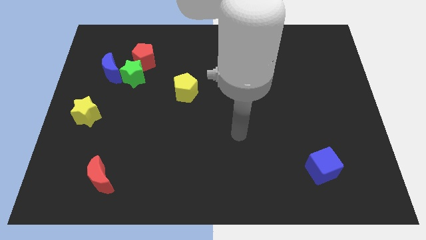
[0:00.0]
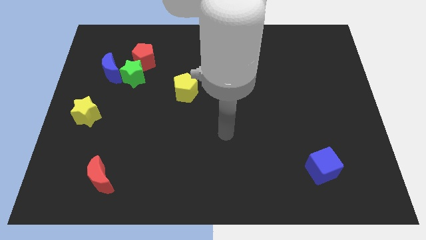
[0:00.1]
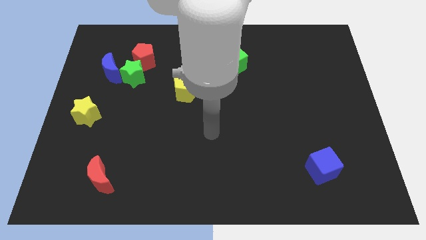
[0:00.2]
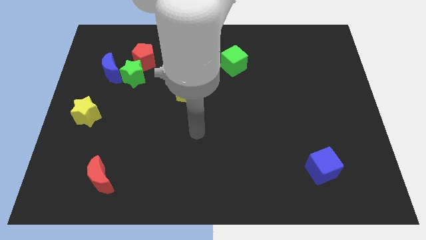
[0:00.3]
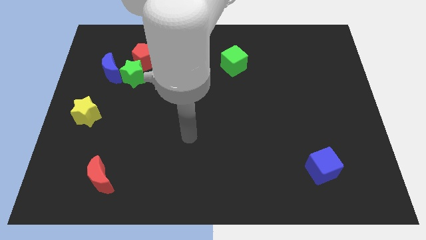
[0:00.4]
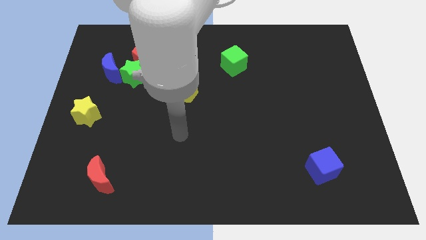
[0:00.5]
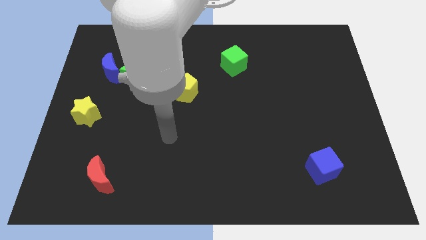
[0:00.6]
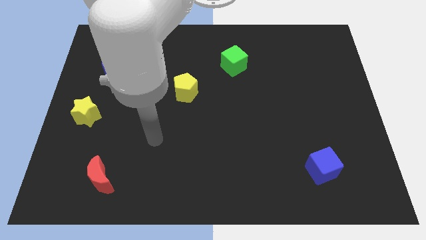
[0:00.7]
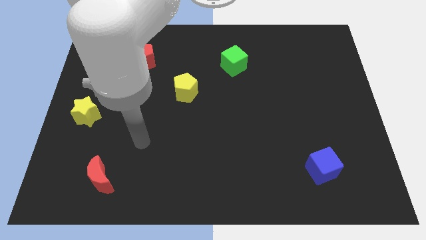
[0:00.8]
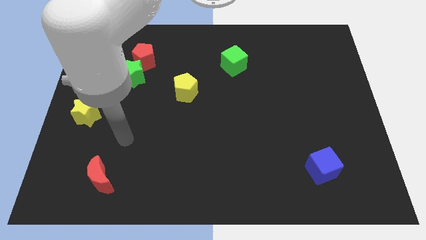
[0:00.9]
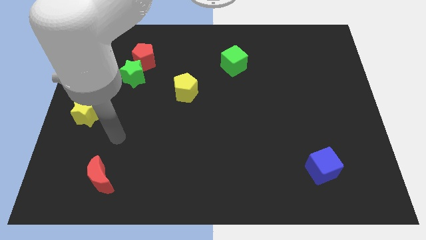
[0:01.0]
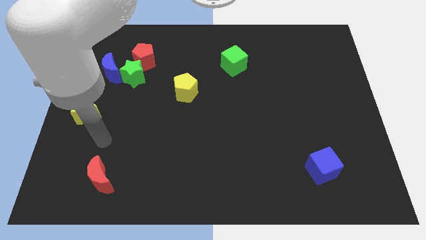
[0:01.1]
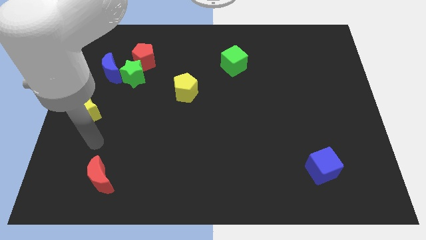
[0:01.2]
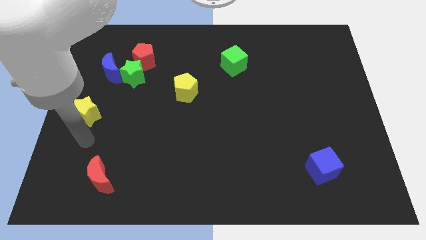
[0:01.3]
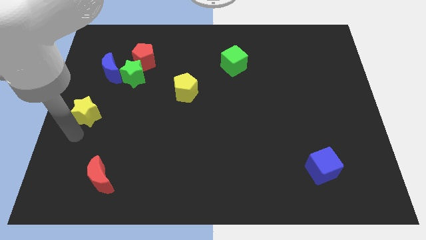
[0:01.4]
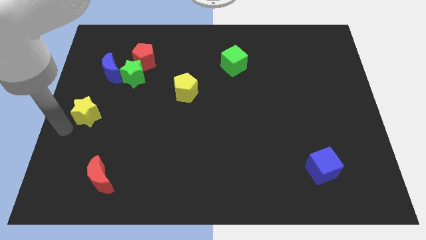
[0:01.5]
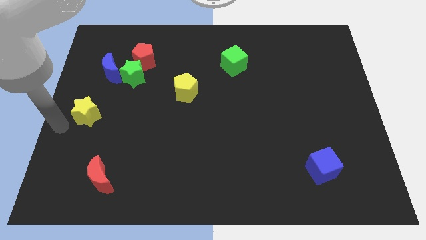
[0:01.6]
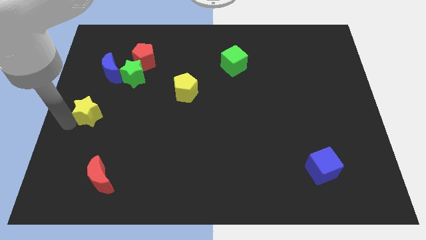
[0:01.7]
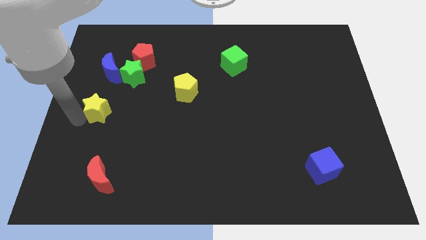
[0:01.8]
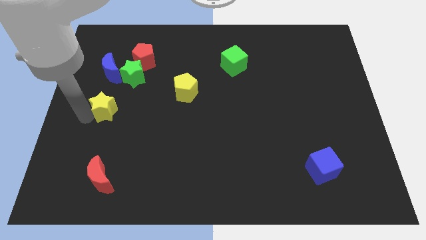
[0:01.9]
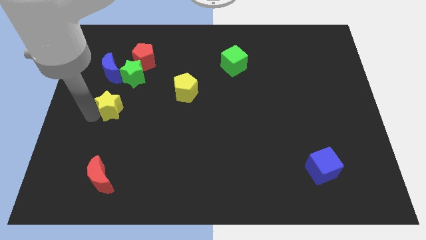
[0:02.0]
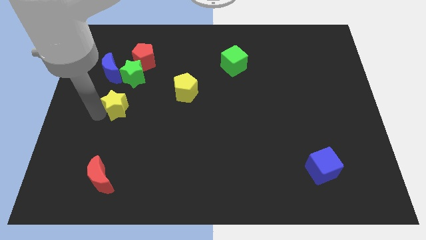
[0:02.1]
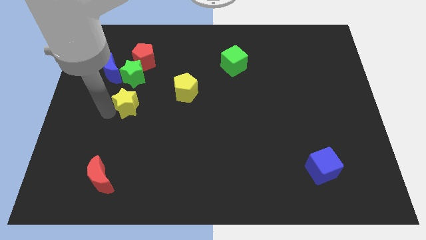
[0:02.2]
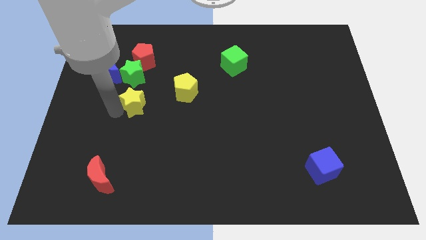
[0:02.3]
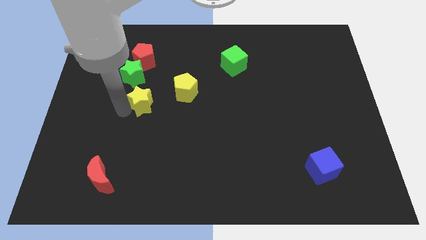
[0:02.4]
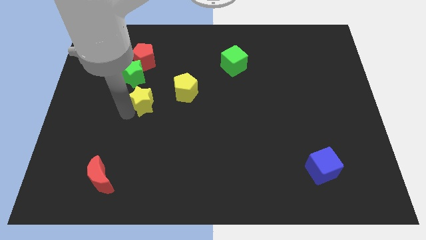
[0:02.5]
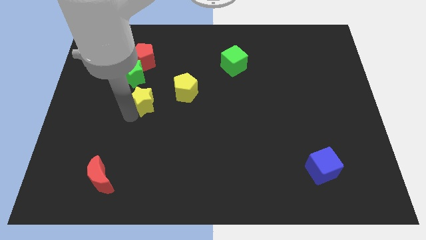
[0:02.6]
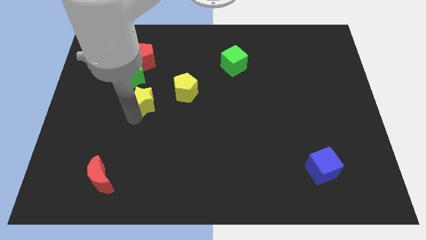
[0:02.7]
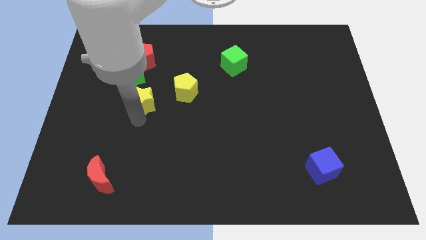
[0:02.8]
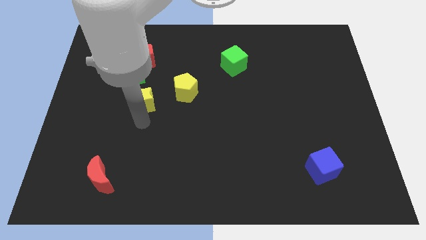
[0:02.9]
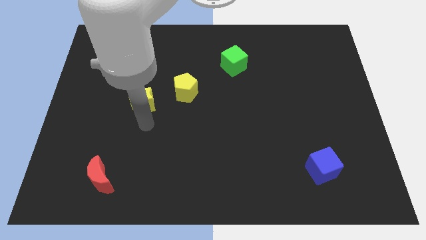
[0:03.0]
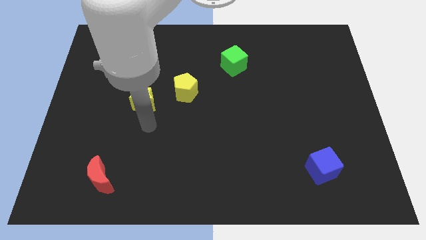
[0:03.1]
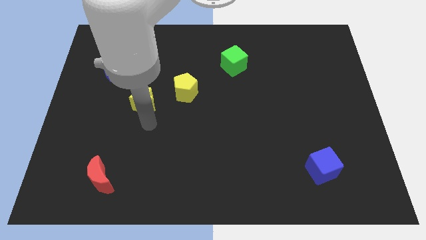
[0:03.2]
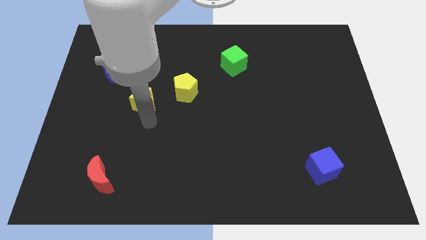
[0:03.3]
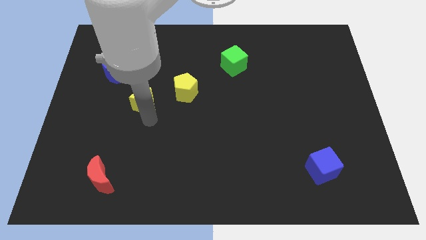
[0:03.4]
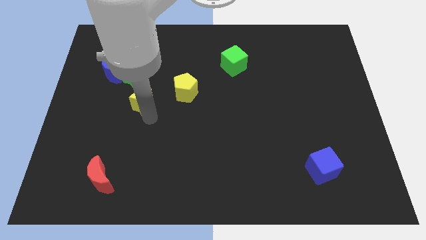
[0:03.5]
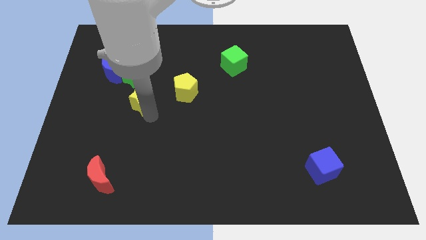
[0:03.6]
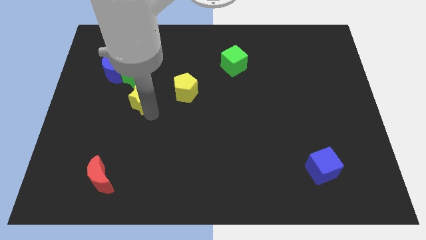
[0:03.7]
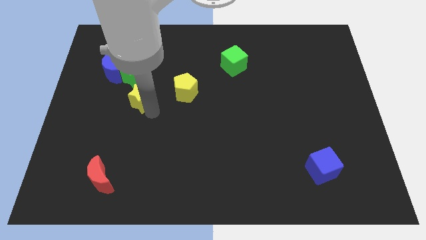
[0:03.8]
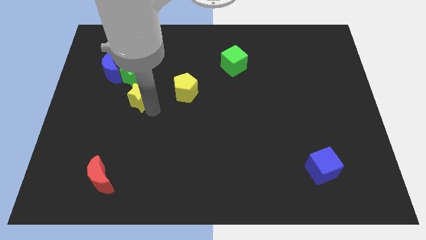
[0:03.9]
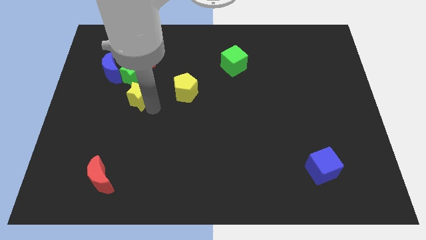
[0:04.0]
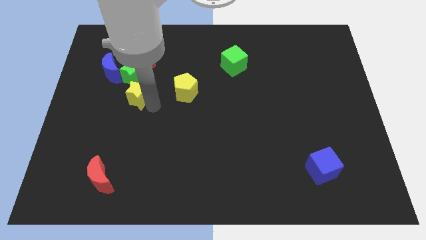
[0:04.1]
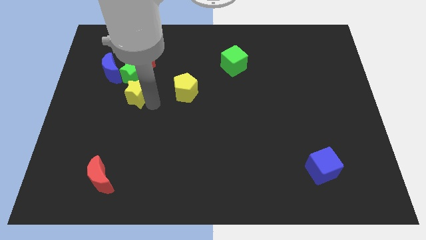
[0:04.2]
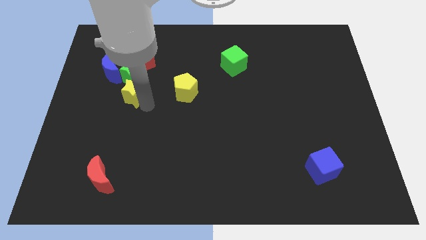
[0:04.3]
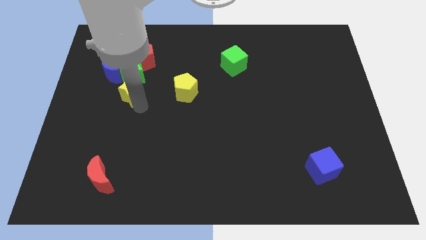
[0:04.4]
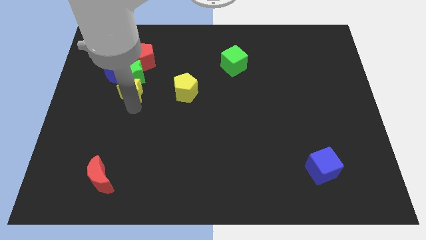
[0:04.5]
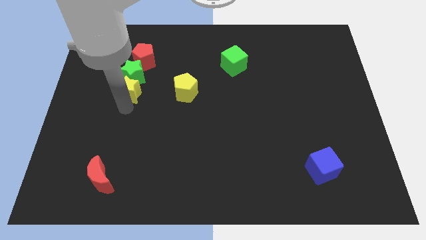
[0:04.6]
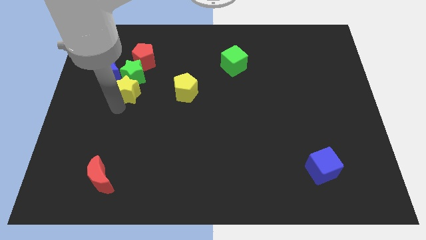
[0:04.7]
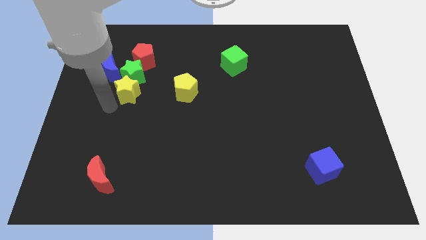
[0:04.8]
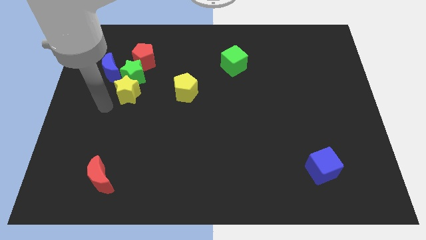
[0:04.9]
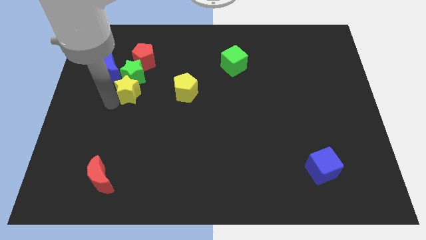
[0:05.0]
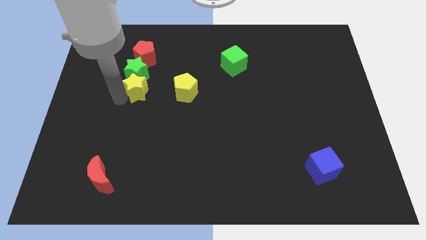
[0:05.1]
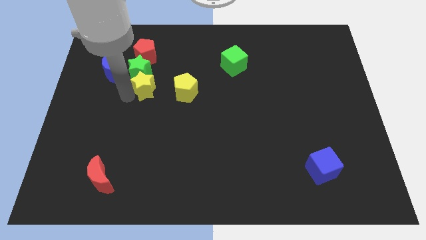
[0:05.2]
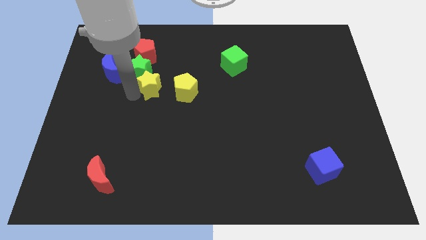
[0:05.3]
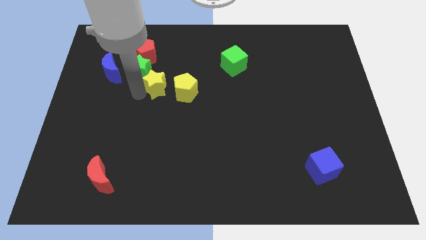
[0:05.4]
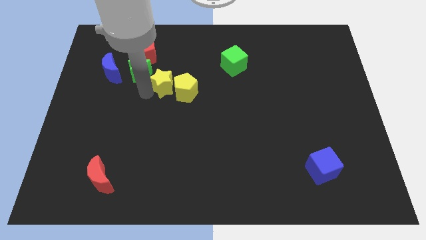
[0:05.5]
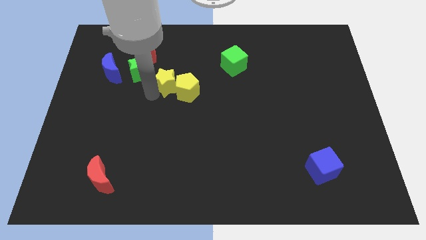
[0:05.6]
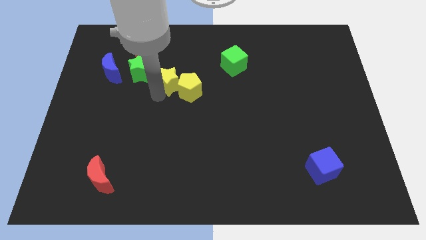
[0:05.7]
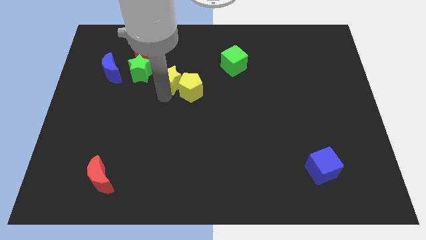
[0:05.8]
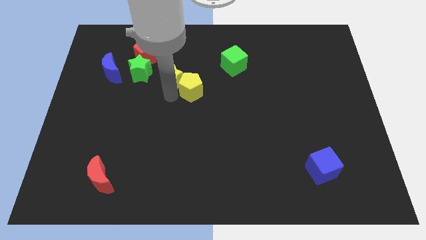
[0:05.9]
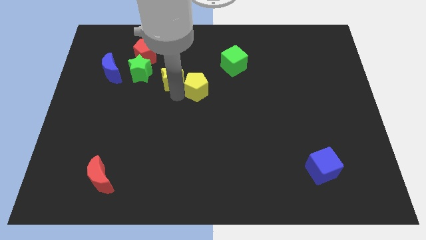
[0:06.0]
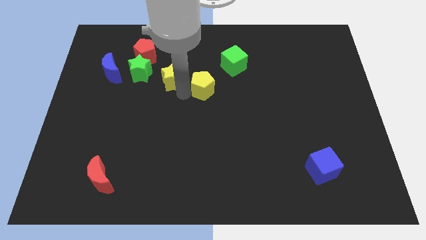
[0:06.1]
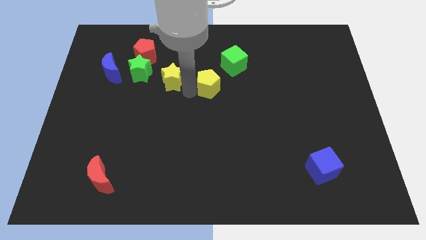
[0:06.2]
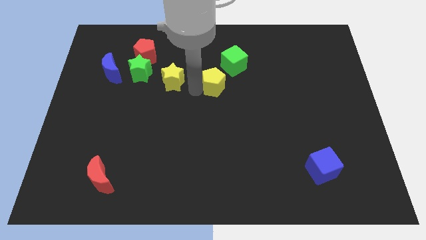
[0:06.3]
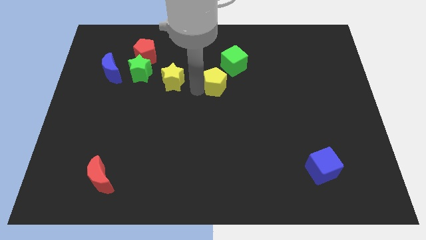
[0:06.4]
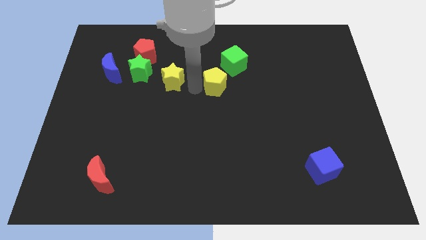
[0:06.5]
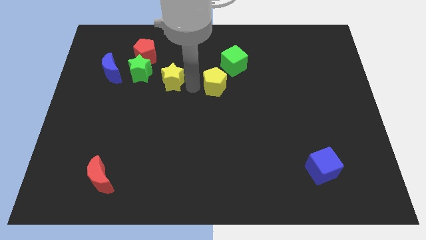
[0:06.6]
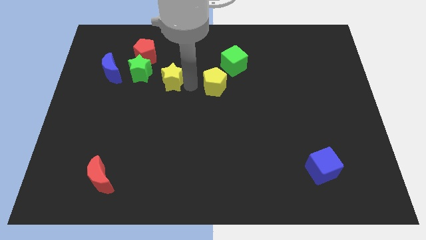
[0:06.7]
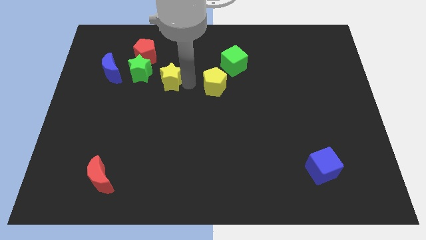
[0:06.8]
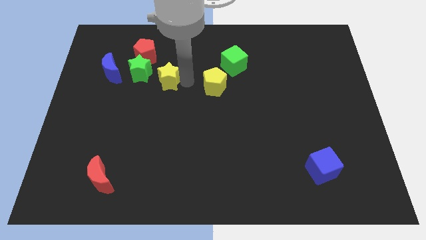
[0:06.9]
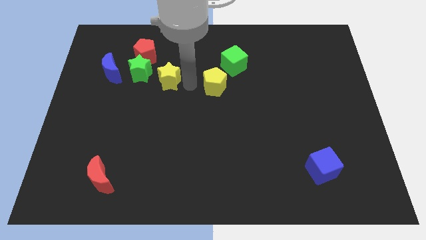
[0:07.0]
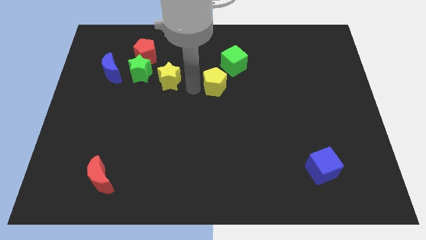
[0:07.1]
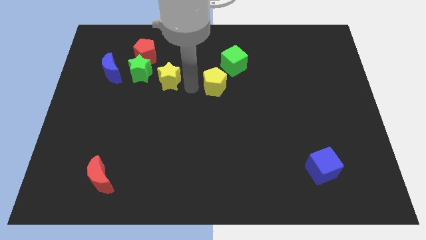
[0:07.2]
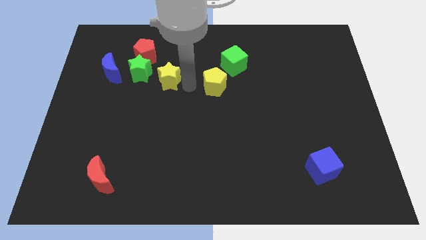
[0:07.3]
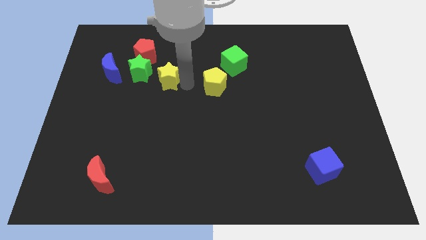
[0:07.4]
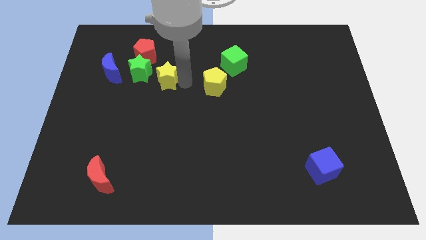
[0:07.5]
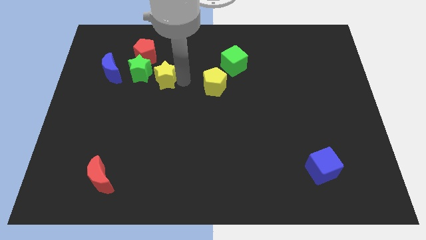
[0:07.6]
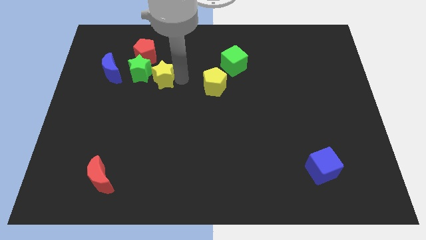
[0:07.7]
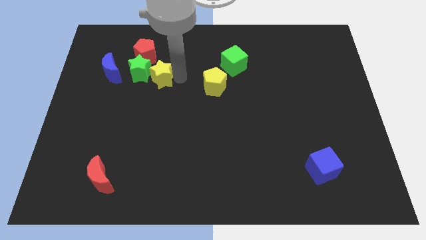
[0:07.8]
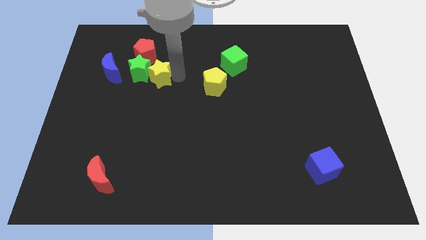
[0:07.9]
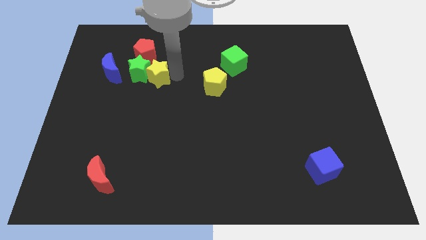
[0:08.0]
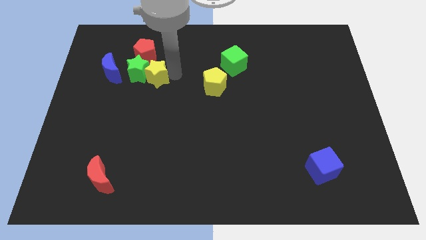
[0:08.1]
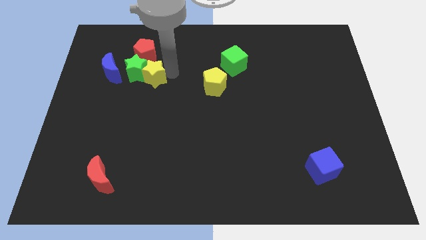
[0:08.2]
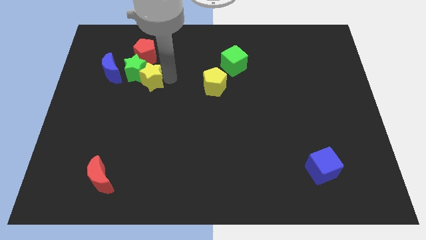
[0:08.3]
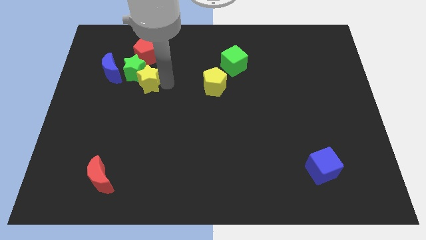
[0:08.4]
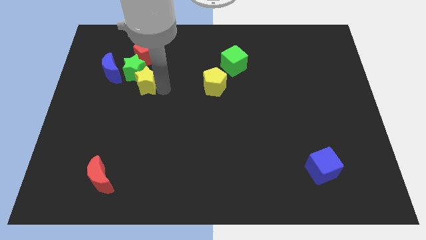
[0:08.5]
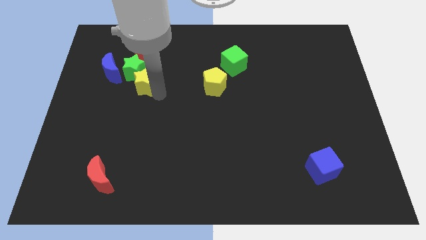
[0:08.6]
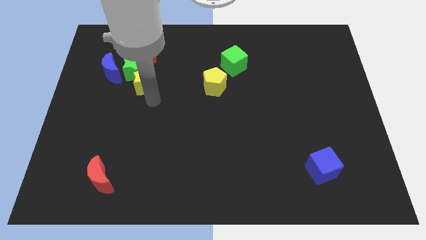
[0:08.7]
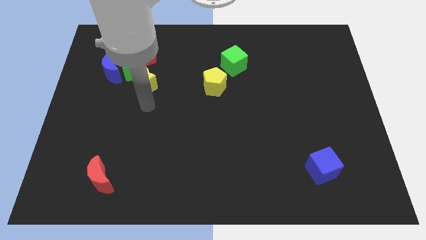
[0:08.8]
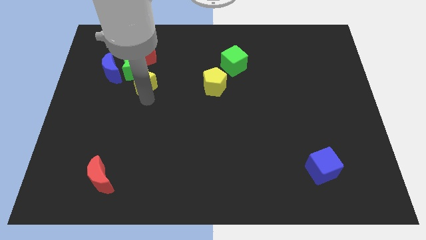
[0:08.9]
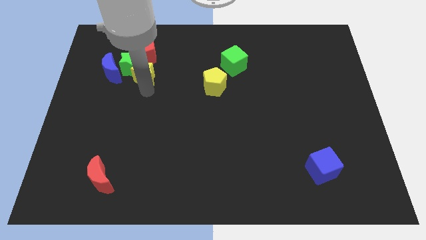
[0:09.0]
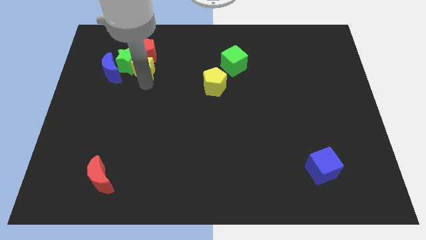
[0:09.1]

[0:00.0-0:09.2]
move the yellow star next to the red pentagon
